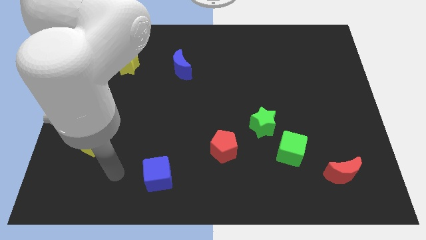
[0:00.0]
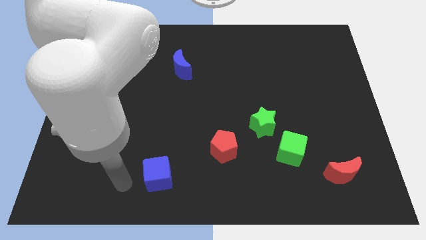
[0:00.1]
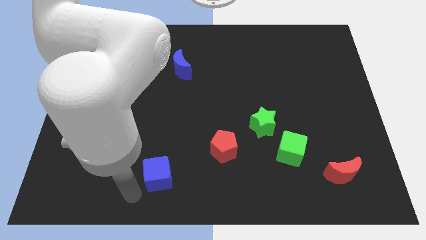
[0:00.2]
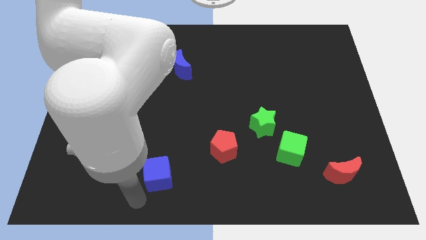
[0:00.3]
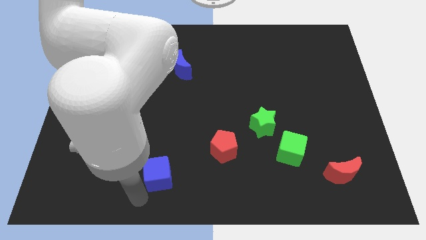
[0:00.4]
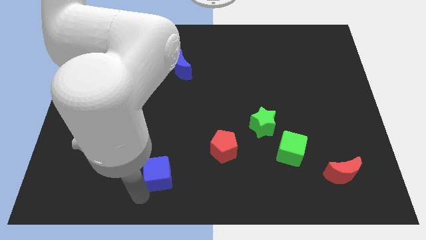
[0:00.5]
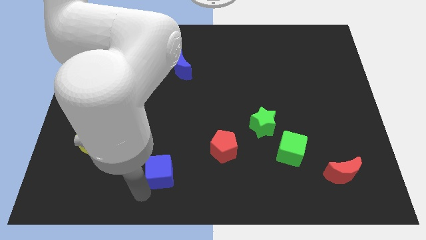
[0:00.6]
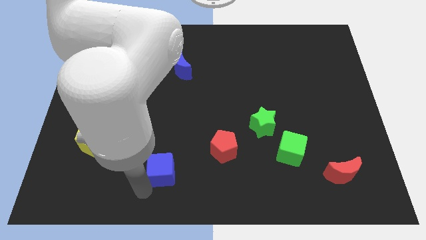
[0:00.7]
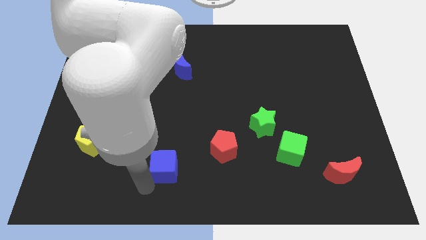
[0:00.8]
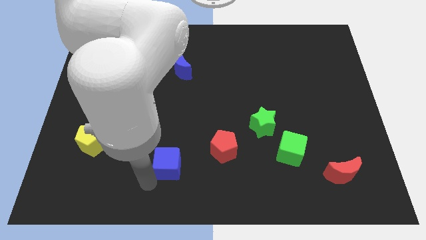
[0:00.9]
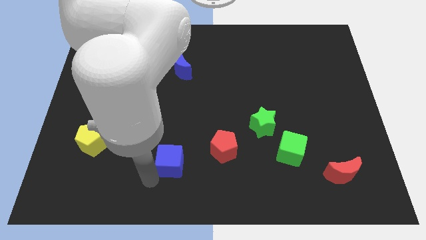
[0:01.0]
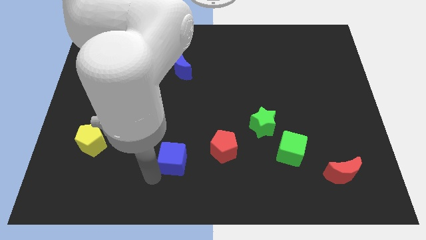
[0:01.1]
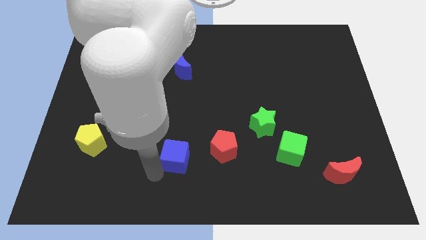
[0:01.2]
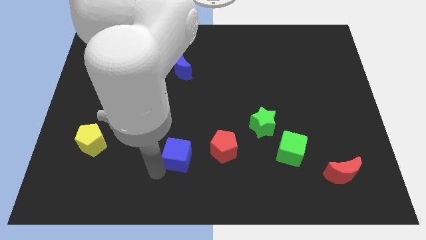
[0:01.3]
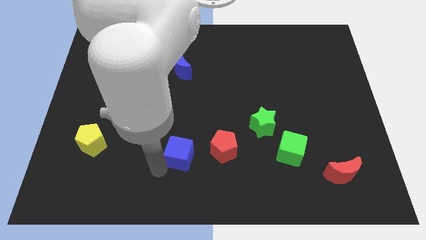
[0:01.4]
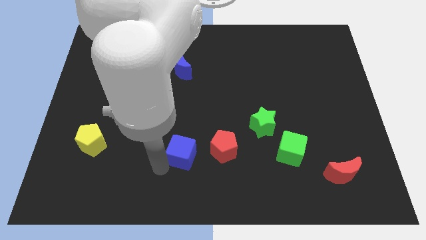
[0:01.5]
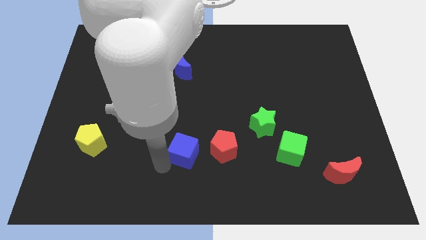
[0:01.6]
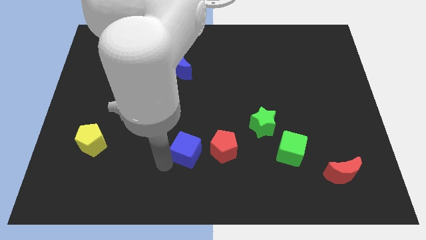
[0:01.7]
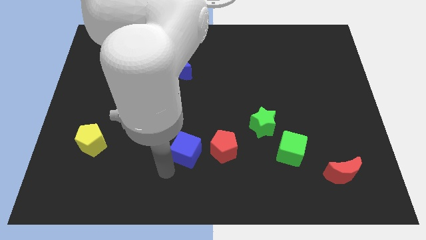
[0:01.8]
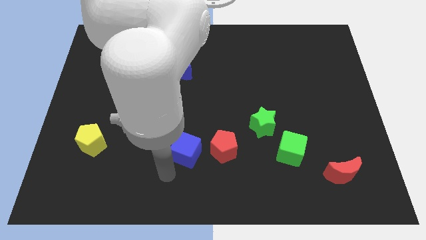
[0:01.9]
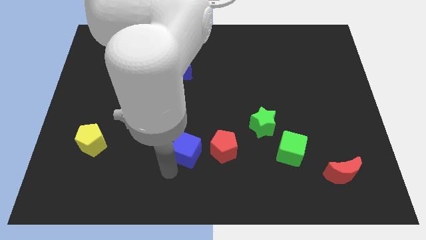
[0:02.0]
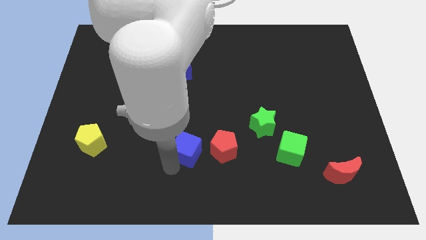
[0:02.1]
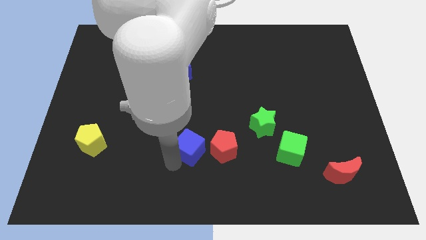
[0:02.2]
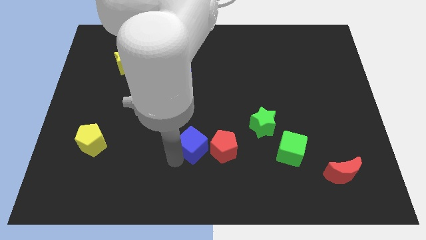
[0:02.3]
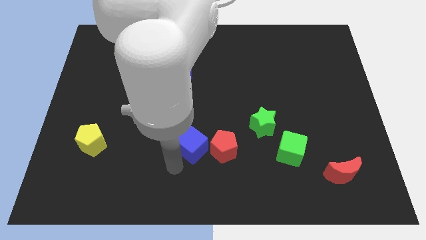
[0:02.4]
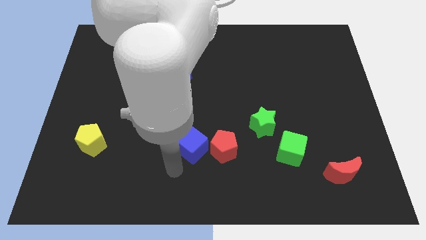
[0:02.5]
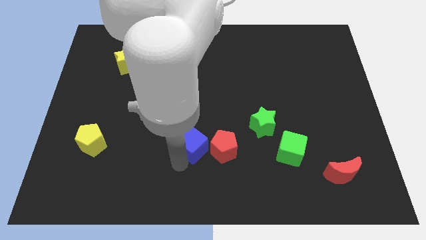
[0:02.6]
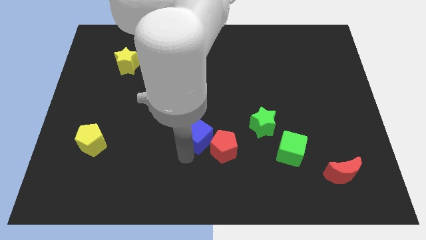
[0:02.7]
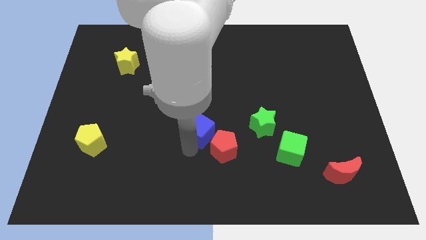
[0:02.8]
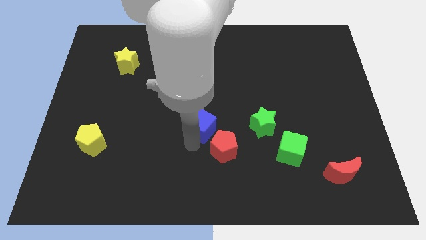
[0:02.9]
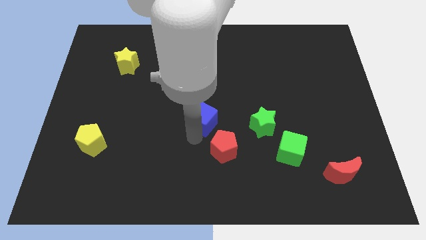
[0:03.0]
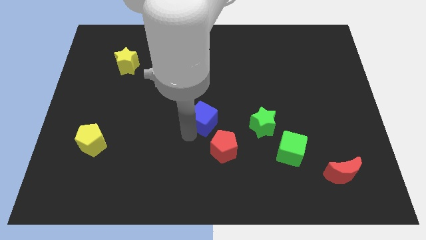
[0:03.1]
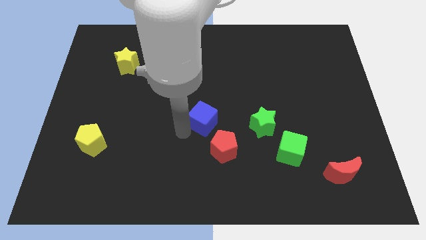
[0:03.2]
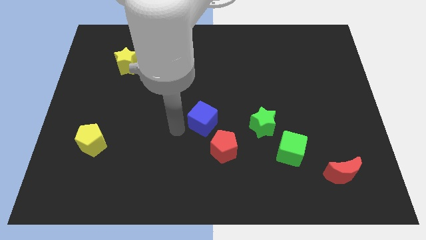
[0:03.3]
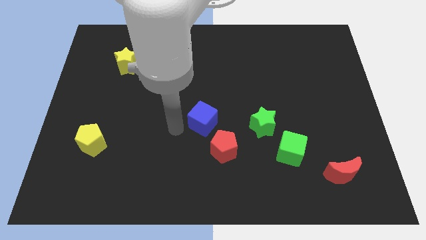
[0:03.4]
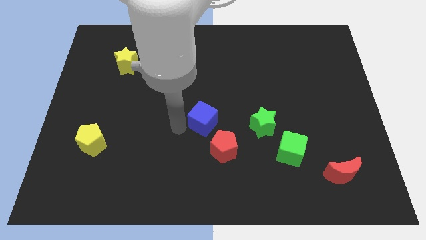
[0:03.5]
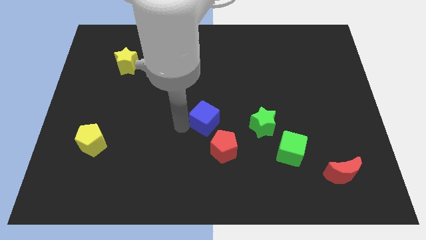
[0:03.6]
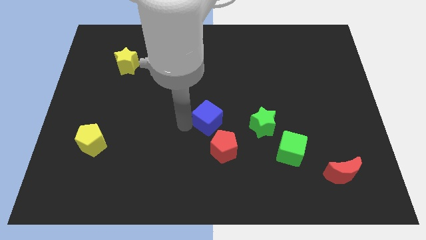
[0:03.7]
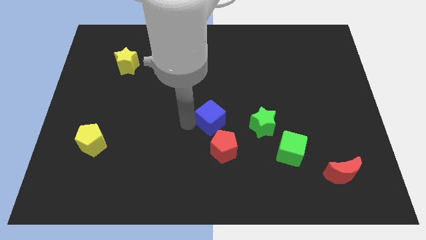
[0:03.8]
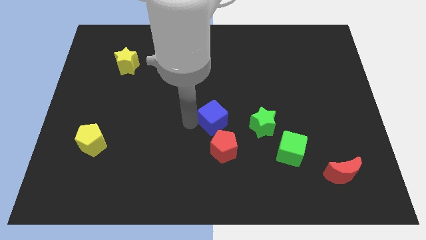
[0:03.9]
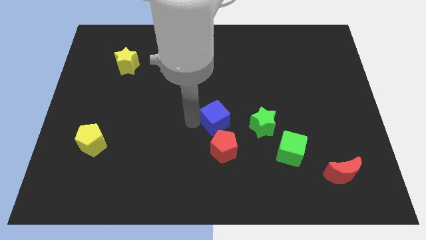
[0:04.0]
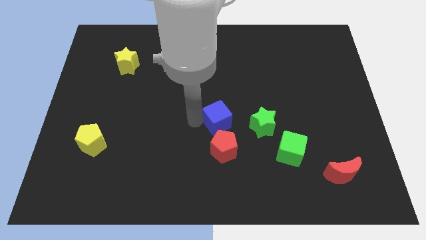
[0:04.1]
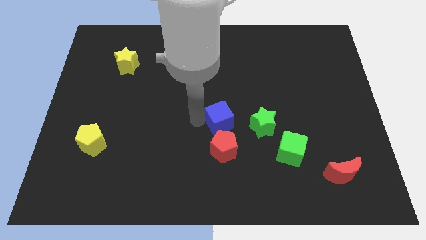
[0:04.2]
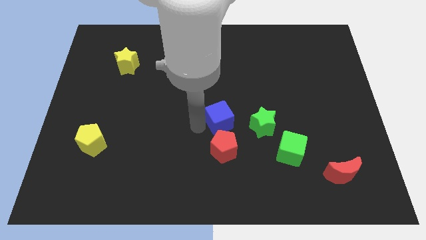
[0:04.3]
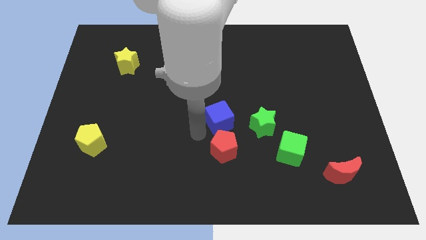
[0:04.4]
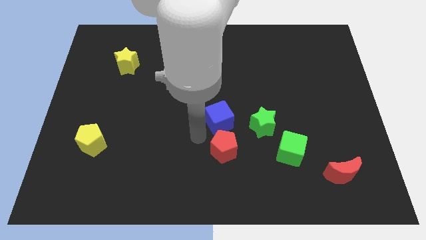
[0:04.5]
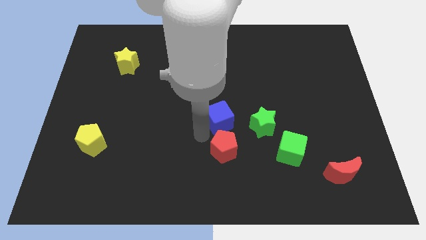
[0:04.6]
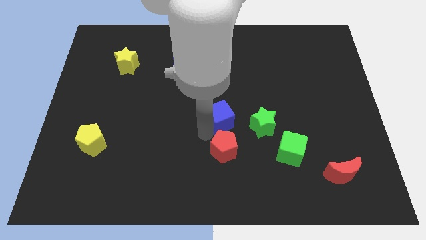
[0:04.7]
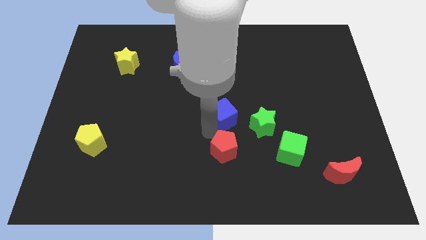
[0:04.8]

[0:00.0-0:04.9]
move the blue cube diagonally upwards and to the right

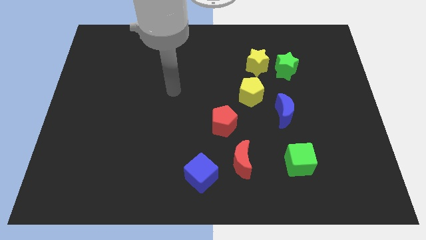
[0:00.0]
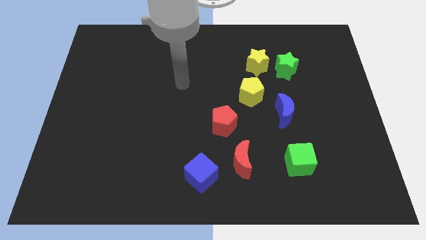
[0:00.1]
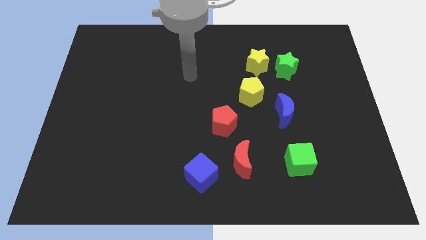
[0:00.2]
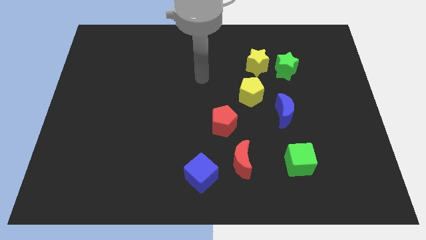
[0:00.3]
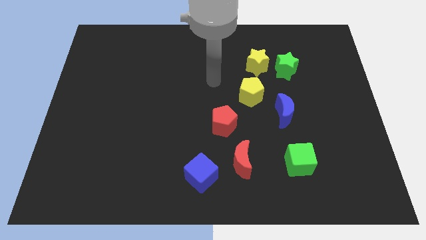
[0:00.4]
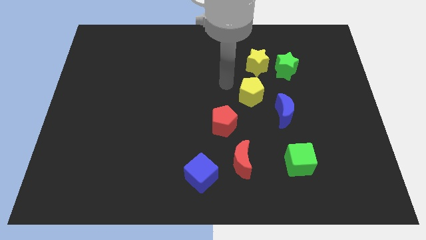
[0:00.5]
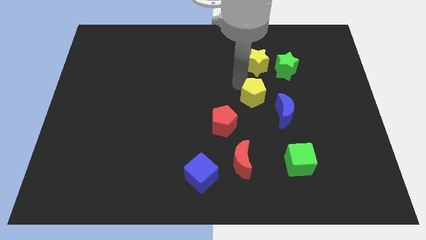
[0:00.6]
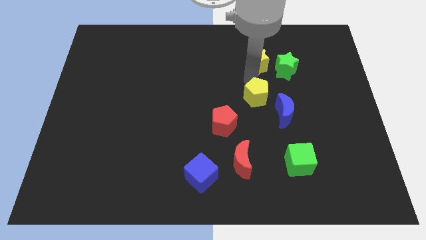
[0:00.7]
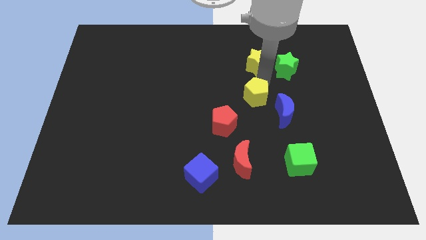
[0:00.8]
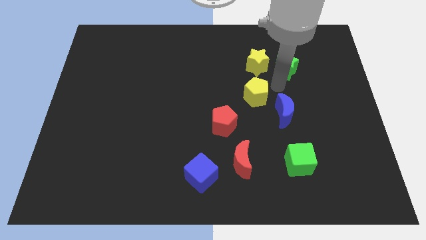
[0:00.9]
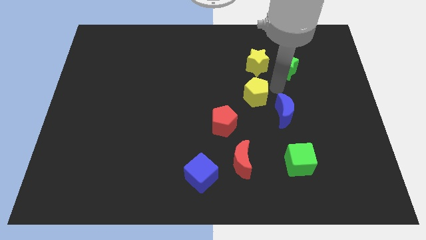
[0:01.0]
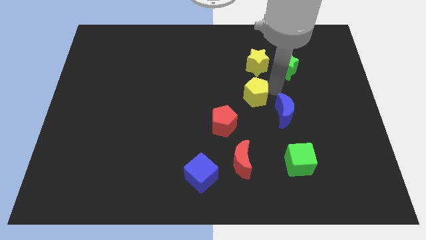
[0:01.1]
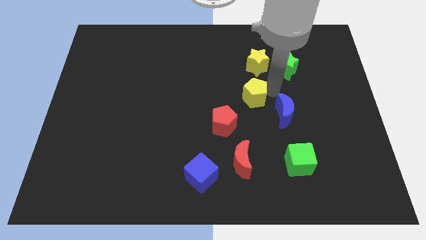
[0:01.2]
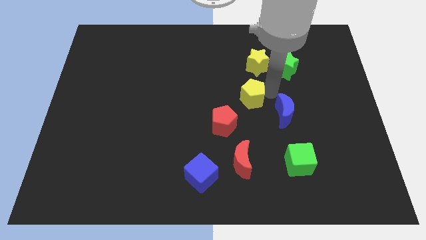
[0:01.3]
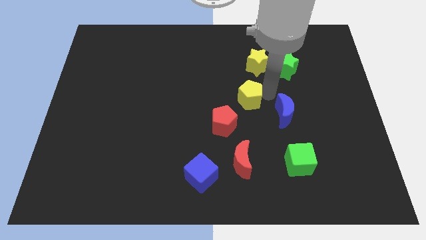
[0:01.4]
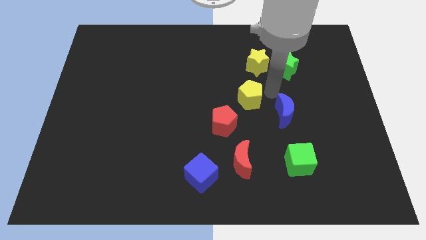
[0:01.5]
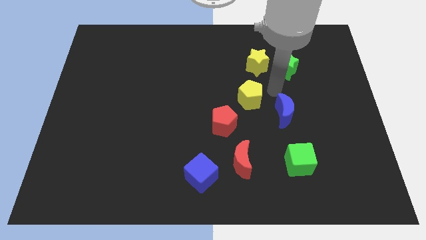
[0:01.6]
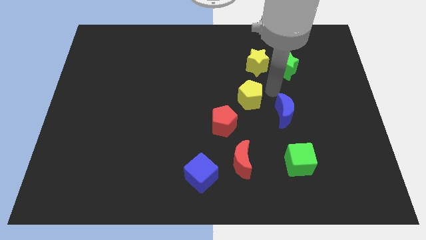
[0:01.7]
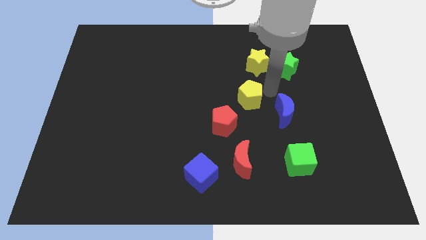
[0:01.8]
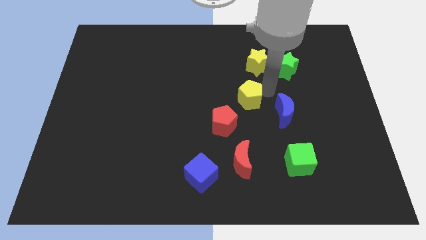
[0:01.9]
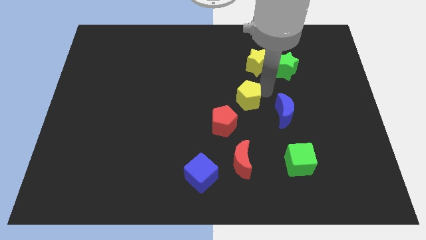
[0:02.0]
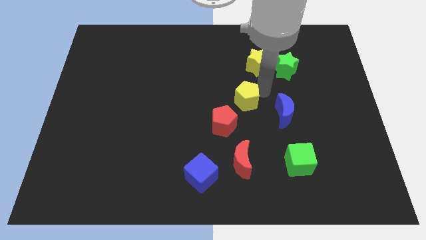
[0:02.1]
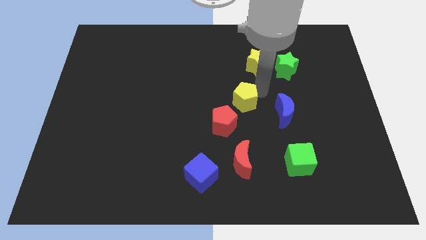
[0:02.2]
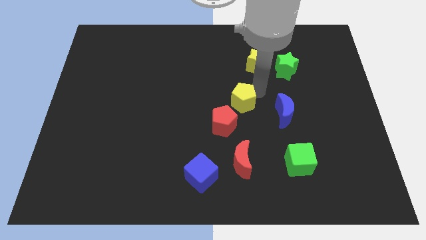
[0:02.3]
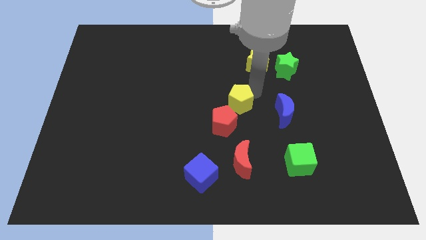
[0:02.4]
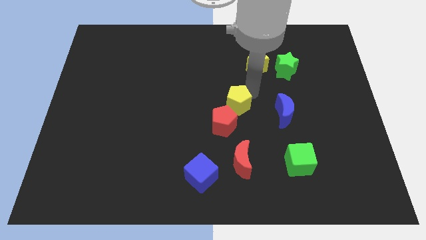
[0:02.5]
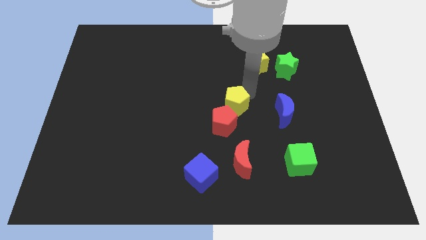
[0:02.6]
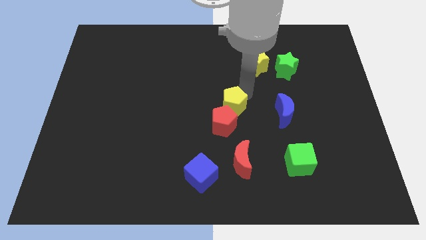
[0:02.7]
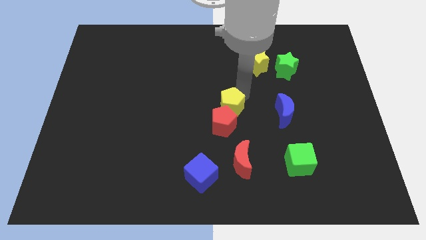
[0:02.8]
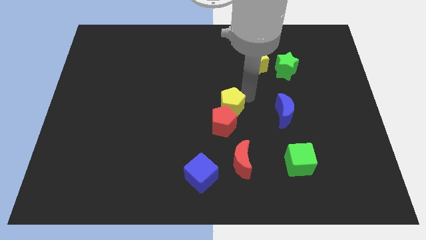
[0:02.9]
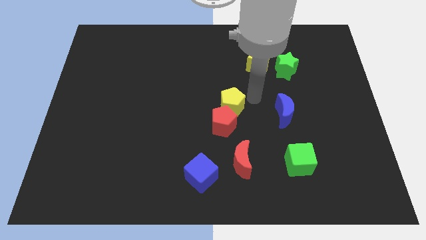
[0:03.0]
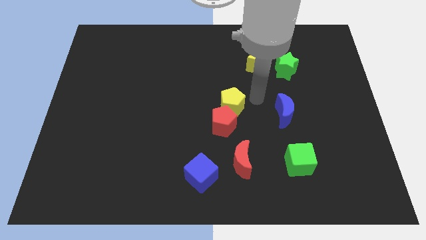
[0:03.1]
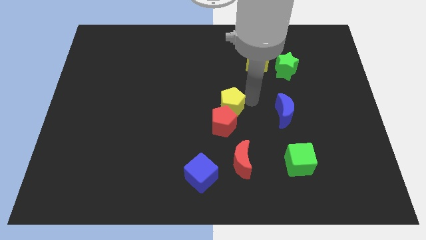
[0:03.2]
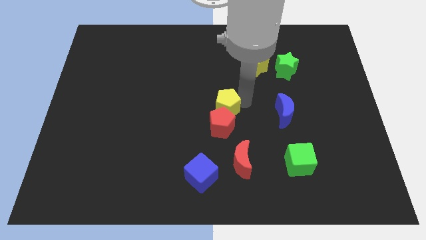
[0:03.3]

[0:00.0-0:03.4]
slightly push the yellow pentagon down and left
